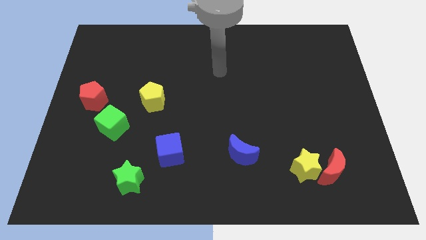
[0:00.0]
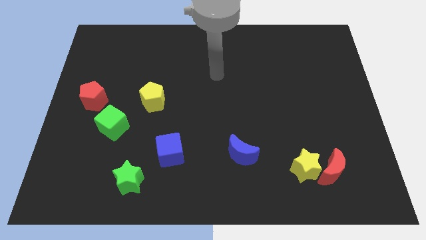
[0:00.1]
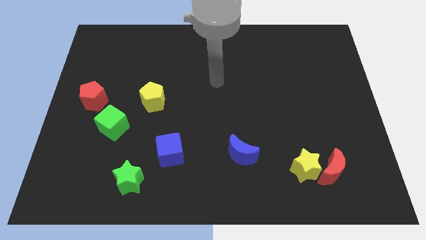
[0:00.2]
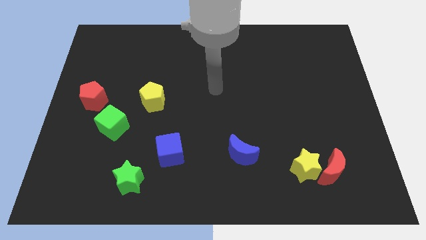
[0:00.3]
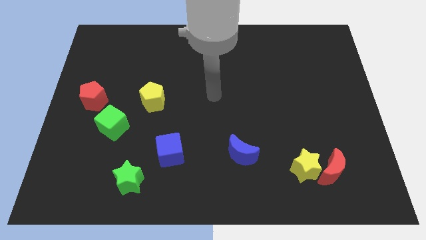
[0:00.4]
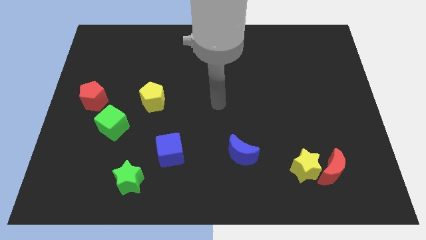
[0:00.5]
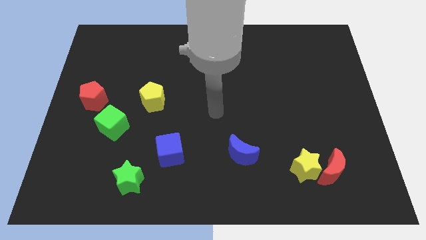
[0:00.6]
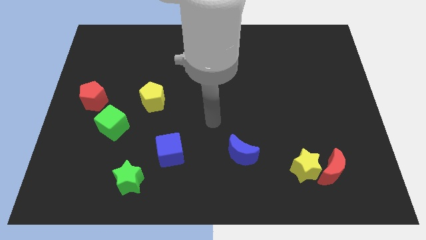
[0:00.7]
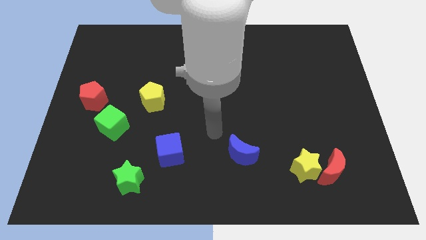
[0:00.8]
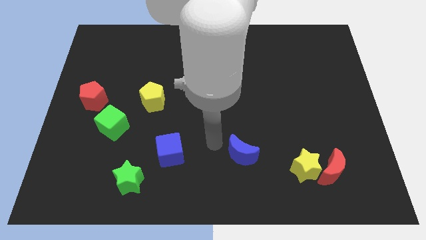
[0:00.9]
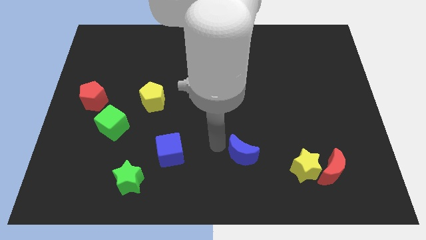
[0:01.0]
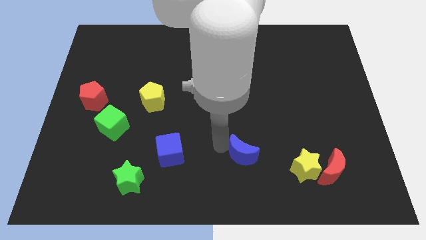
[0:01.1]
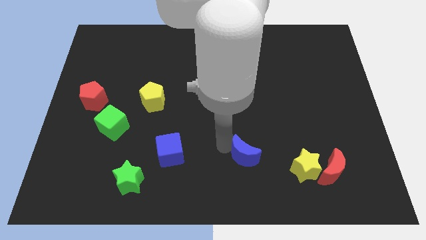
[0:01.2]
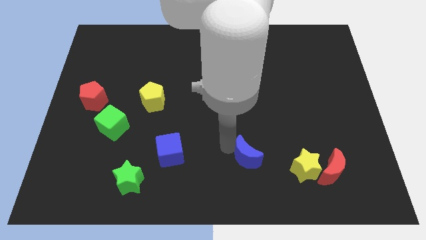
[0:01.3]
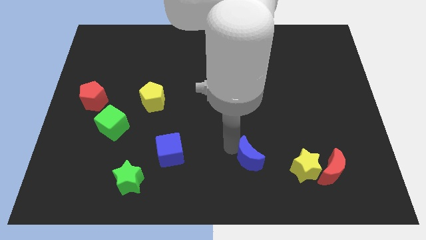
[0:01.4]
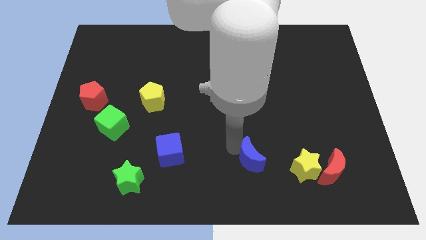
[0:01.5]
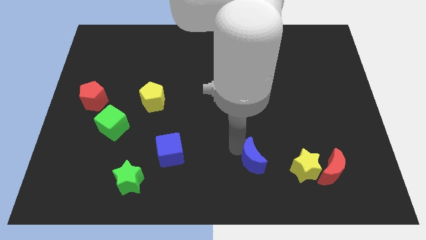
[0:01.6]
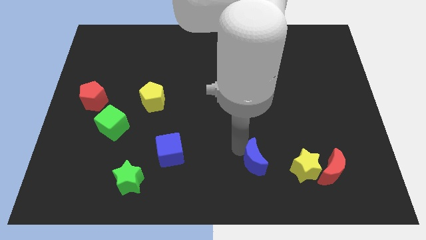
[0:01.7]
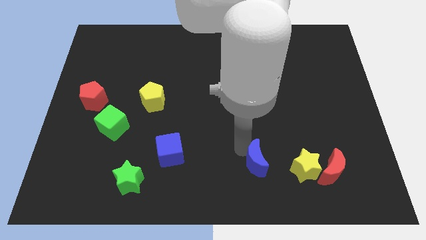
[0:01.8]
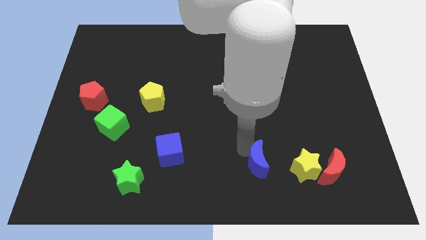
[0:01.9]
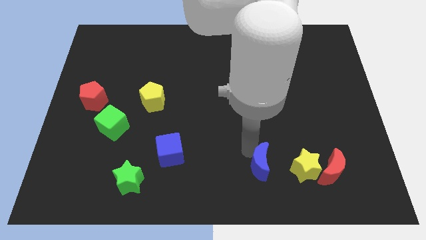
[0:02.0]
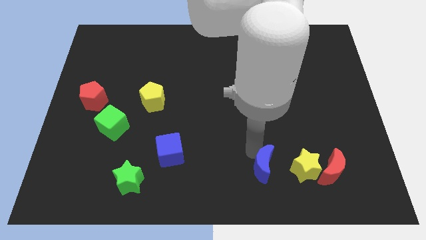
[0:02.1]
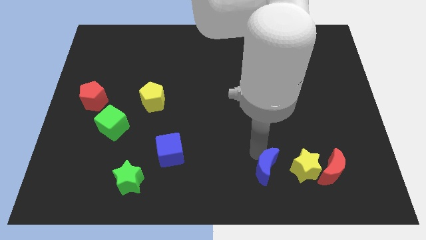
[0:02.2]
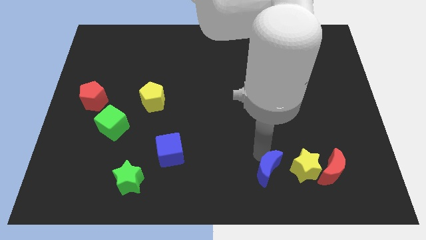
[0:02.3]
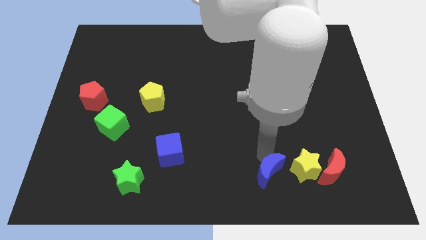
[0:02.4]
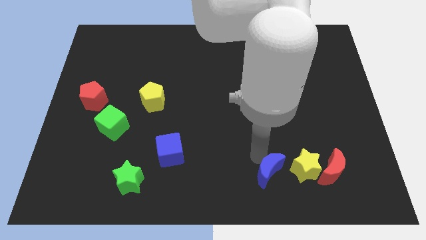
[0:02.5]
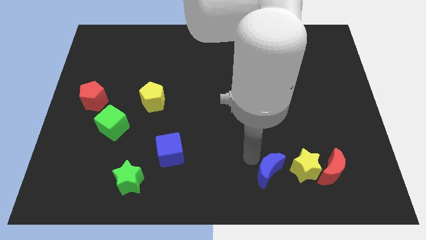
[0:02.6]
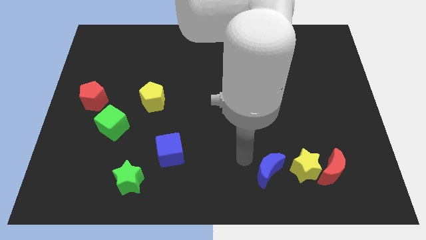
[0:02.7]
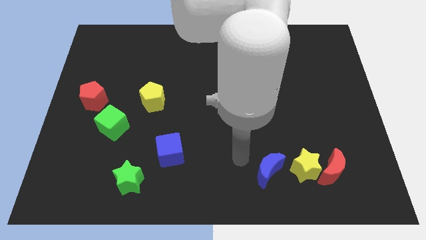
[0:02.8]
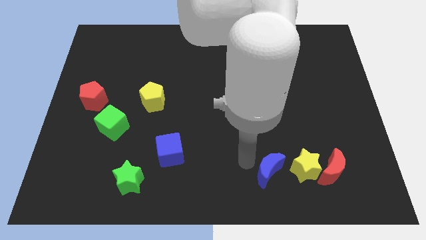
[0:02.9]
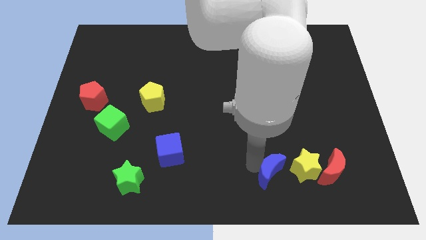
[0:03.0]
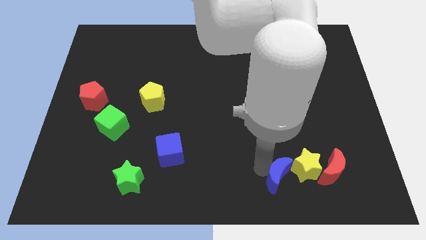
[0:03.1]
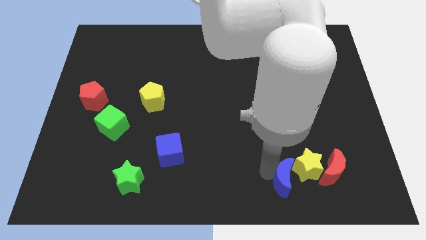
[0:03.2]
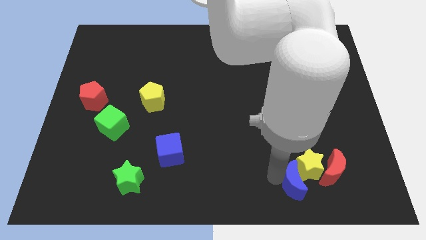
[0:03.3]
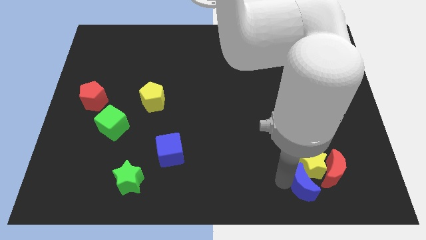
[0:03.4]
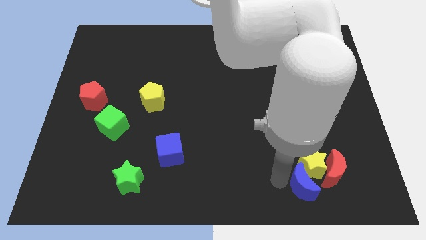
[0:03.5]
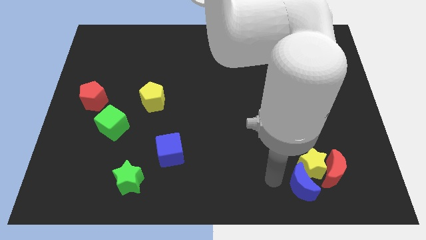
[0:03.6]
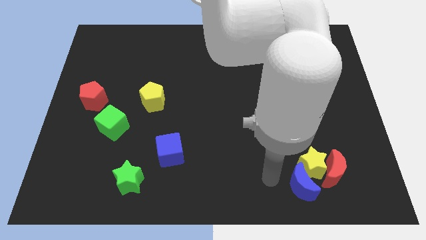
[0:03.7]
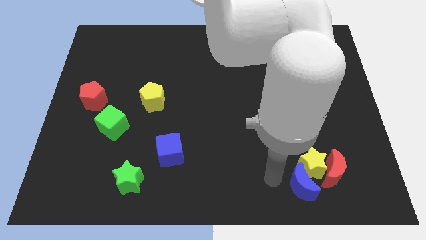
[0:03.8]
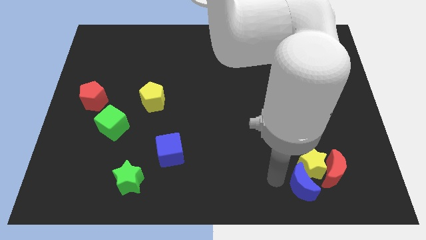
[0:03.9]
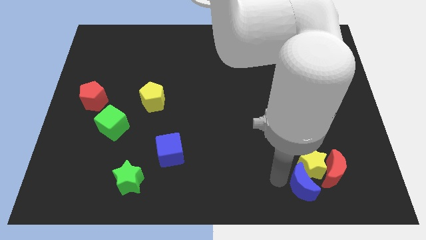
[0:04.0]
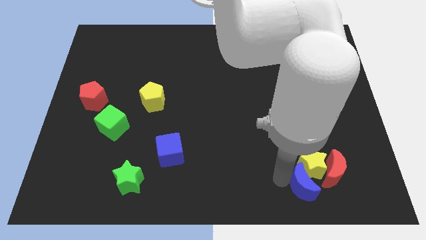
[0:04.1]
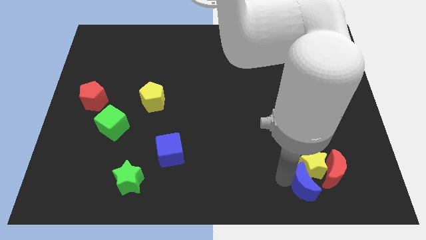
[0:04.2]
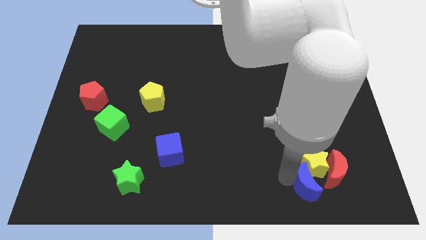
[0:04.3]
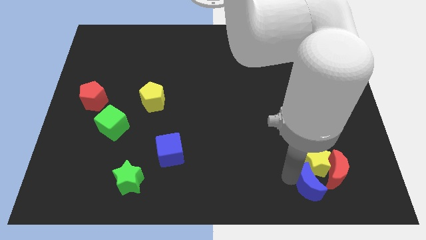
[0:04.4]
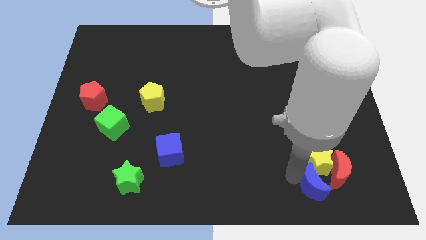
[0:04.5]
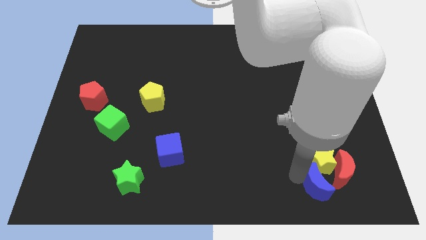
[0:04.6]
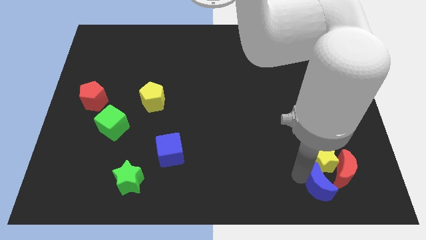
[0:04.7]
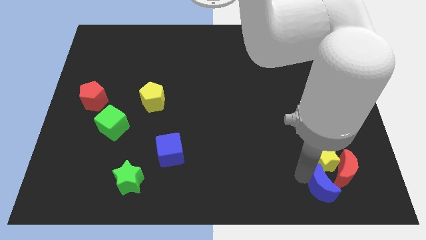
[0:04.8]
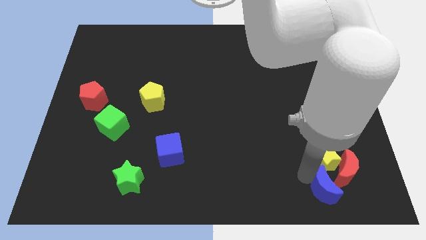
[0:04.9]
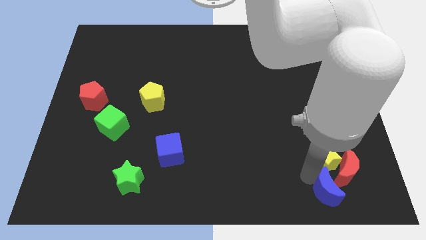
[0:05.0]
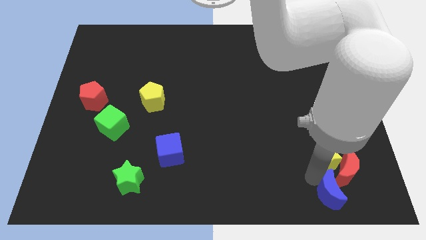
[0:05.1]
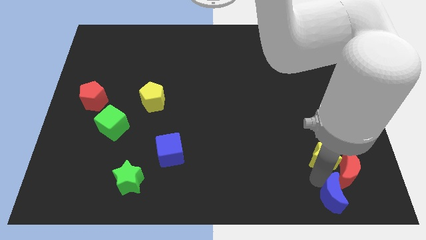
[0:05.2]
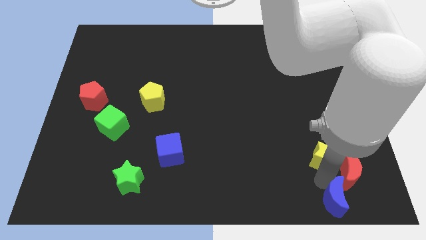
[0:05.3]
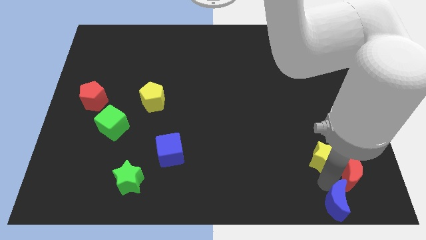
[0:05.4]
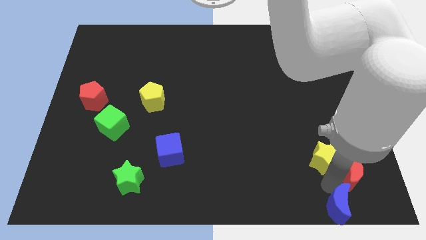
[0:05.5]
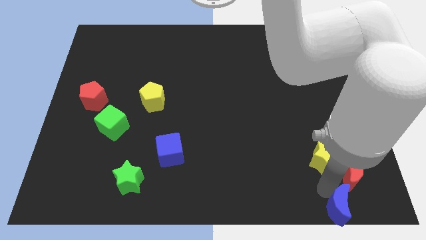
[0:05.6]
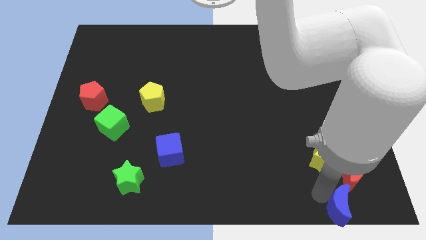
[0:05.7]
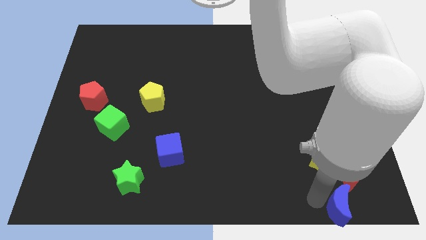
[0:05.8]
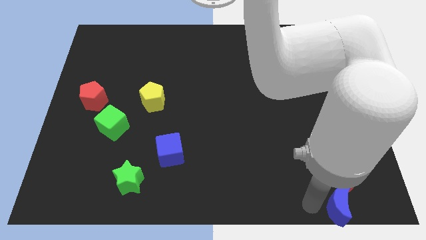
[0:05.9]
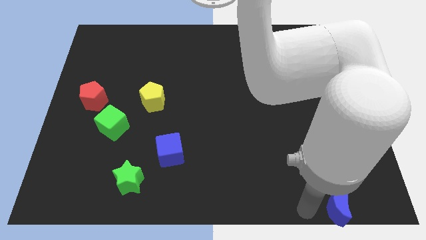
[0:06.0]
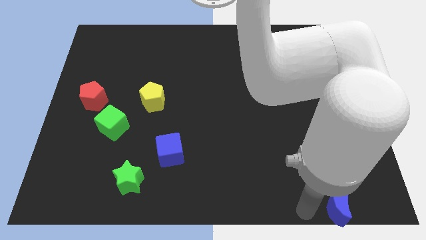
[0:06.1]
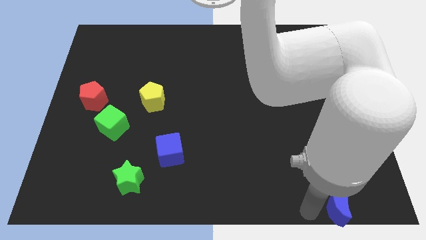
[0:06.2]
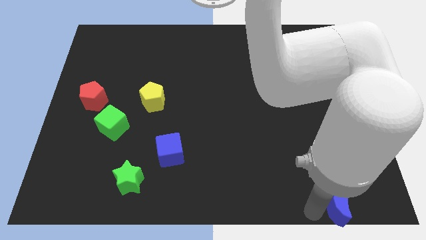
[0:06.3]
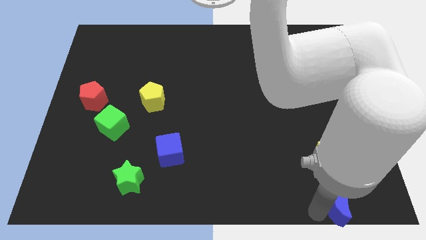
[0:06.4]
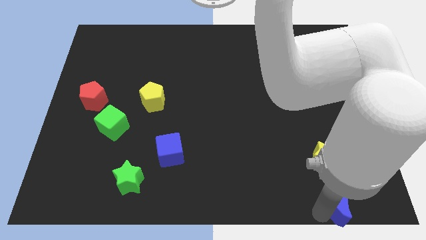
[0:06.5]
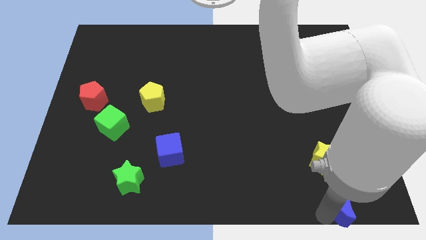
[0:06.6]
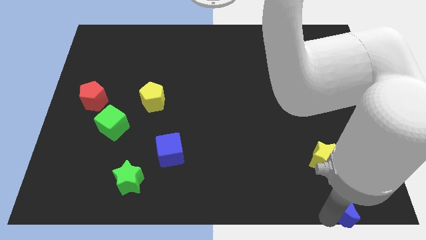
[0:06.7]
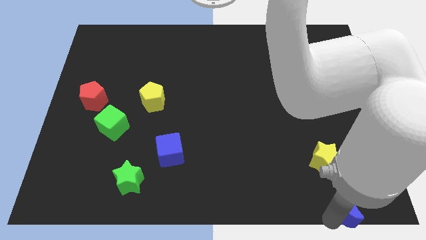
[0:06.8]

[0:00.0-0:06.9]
move the blue moon to the bottom right of the board
